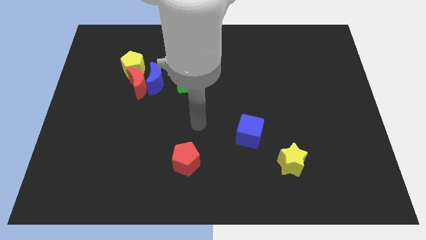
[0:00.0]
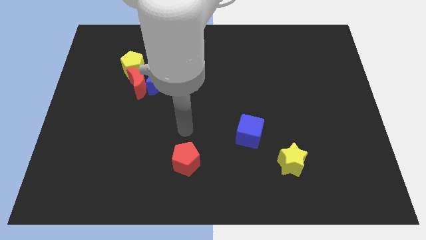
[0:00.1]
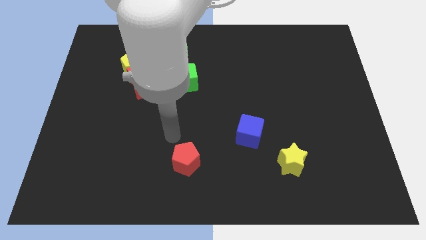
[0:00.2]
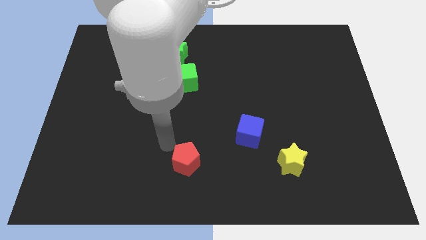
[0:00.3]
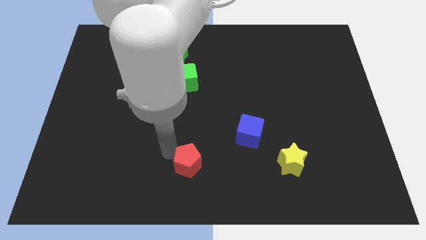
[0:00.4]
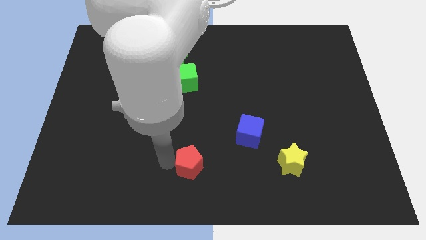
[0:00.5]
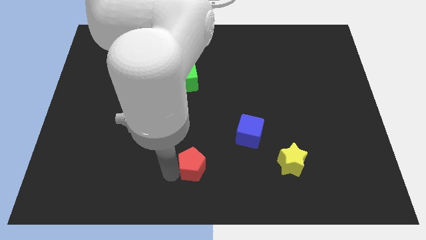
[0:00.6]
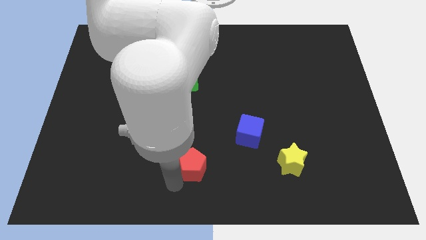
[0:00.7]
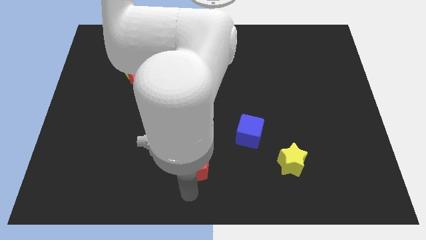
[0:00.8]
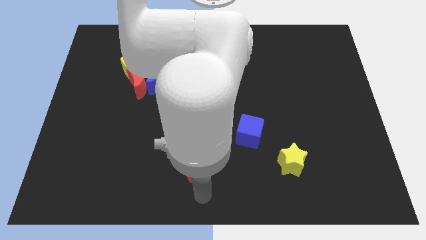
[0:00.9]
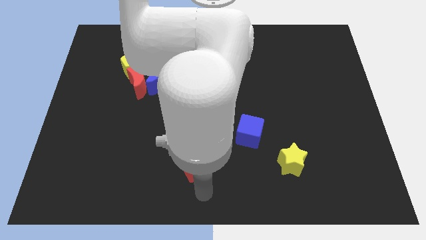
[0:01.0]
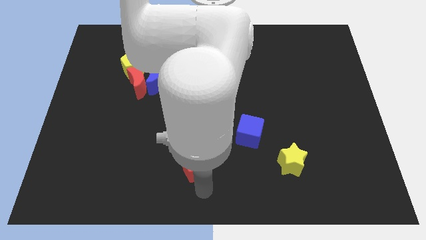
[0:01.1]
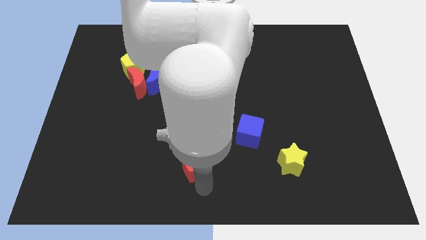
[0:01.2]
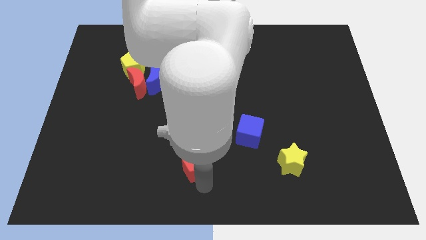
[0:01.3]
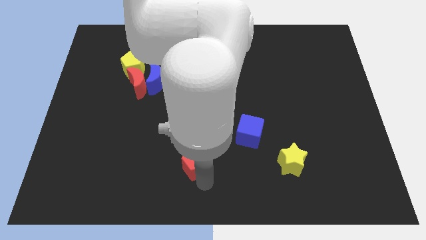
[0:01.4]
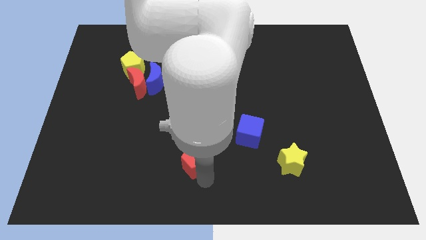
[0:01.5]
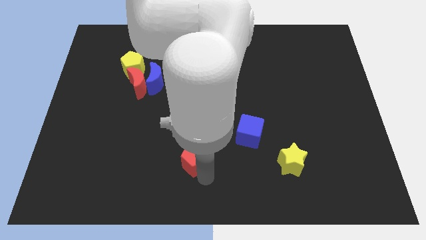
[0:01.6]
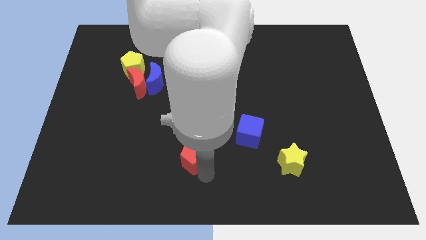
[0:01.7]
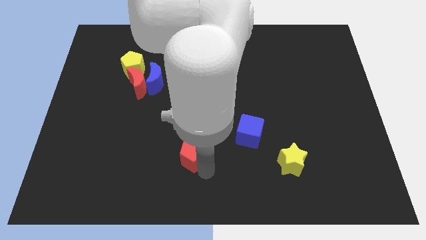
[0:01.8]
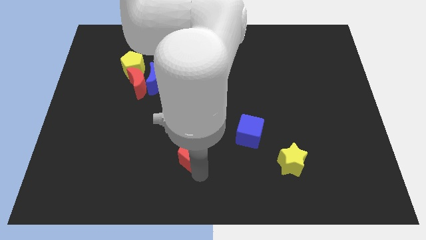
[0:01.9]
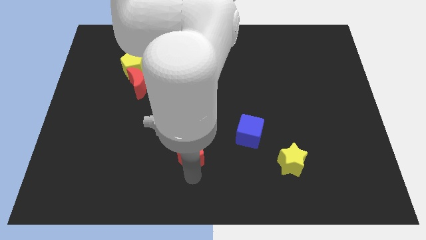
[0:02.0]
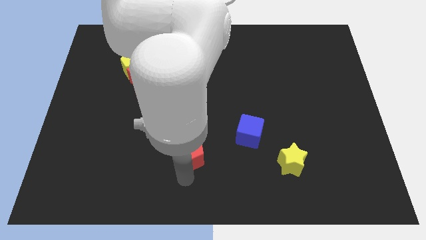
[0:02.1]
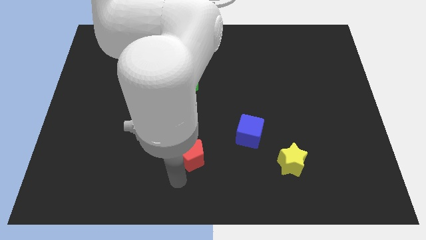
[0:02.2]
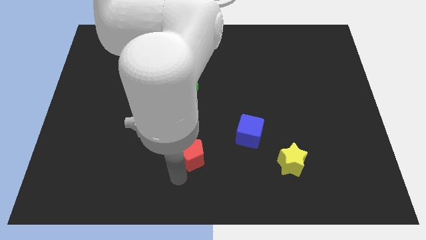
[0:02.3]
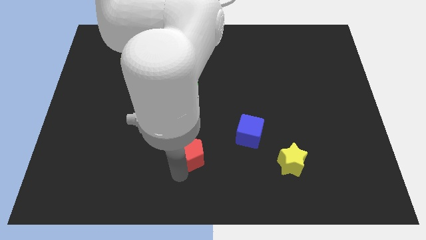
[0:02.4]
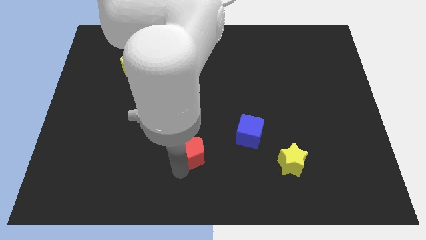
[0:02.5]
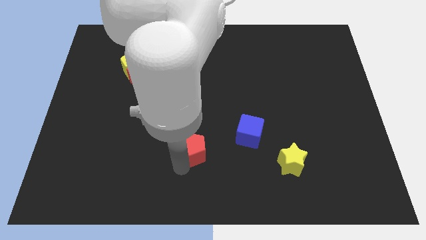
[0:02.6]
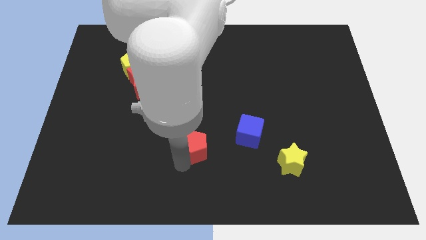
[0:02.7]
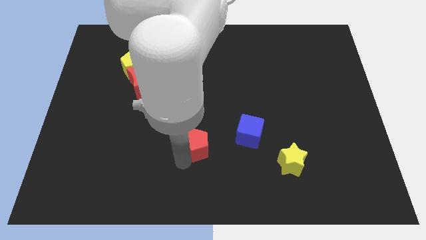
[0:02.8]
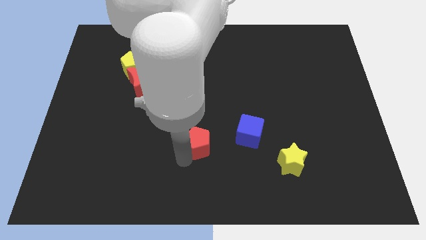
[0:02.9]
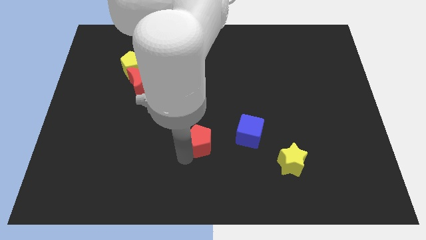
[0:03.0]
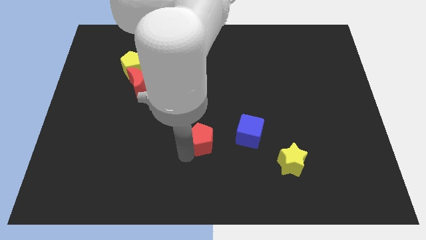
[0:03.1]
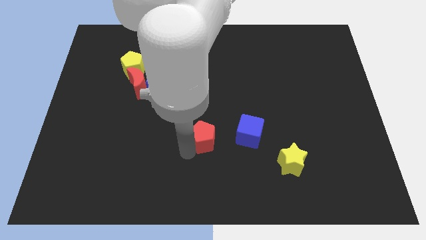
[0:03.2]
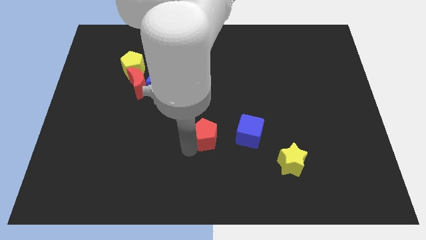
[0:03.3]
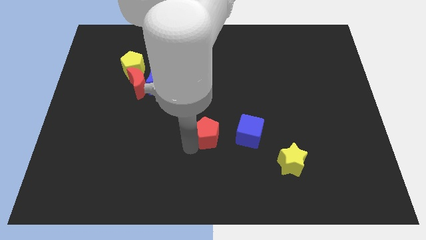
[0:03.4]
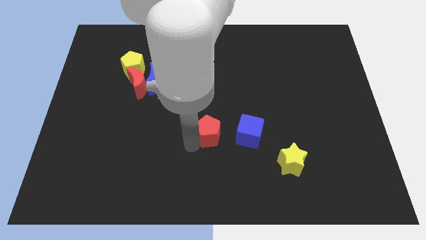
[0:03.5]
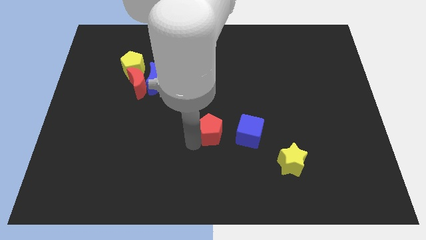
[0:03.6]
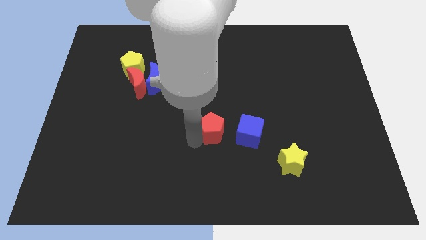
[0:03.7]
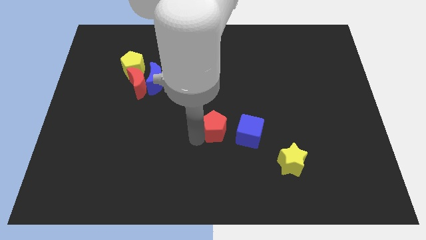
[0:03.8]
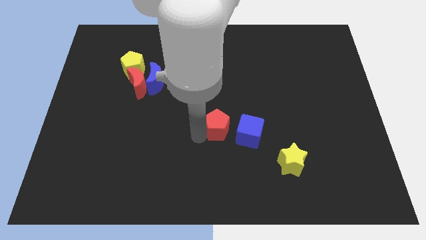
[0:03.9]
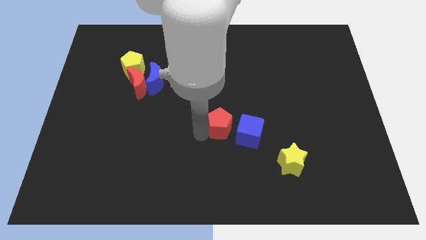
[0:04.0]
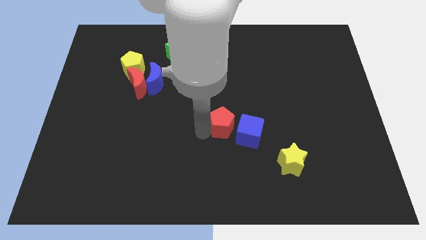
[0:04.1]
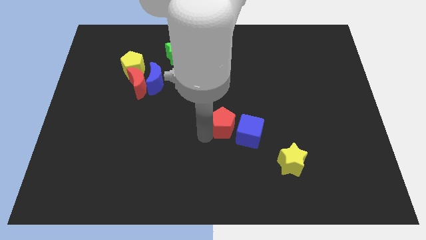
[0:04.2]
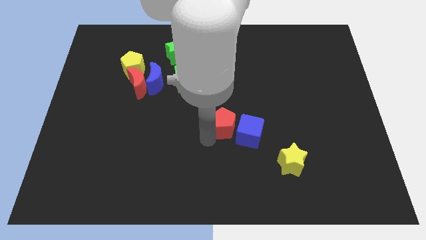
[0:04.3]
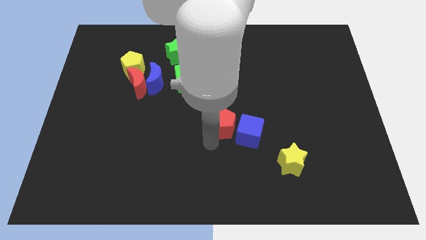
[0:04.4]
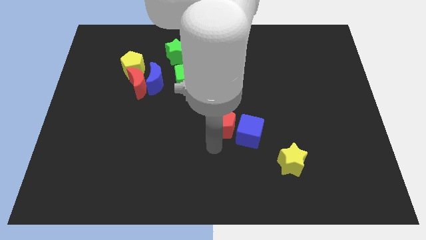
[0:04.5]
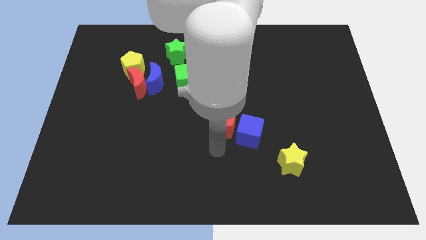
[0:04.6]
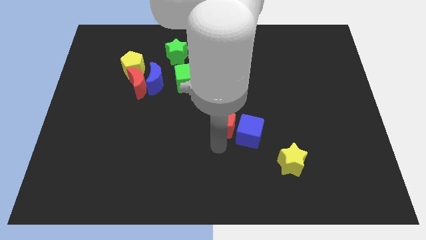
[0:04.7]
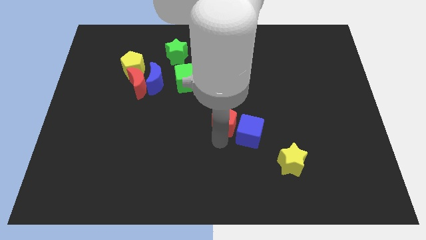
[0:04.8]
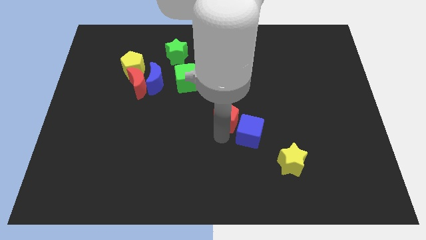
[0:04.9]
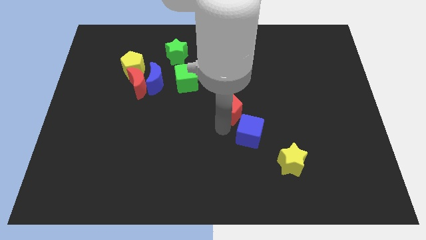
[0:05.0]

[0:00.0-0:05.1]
slide the red pentagon to the top of the blue cube

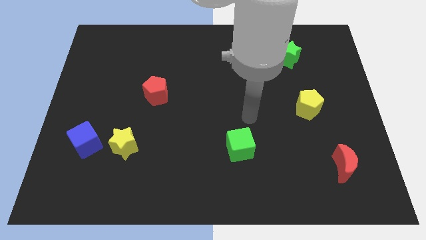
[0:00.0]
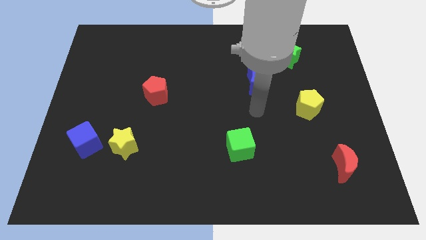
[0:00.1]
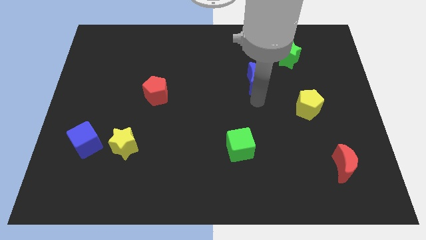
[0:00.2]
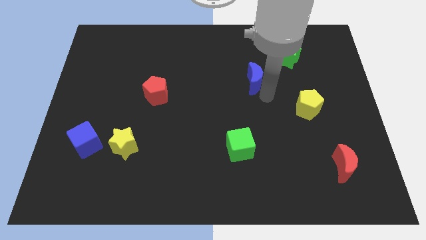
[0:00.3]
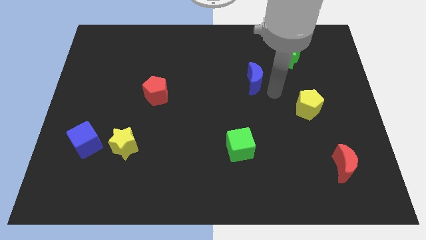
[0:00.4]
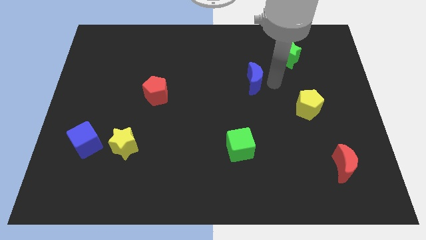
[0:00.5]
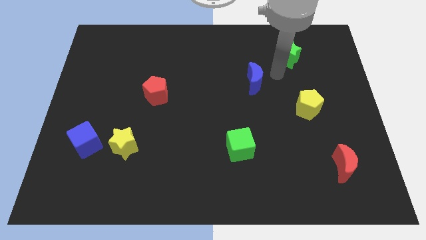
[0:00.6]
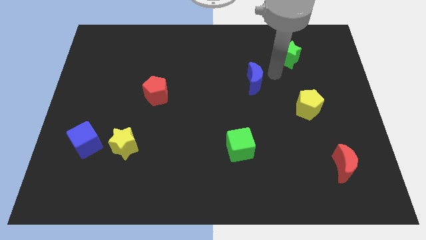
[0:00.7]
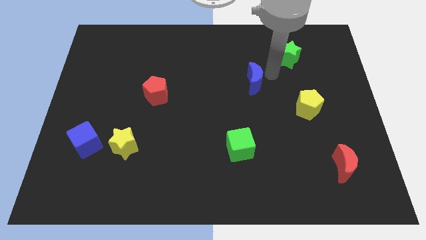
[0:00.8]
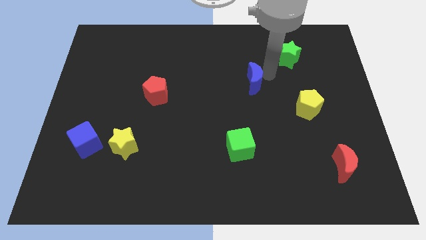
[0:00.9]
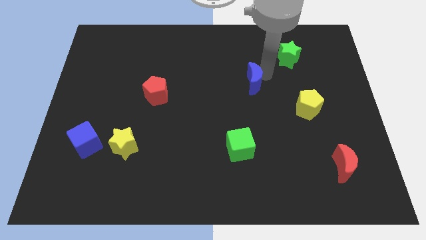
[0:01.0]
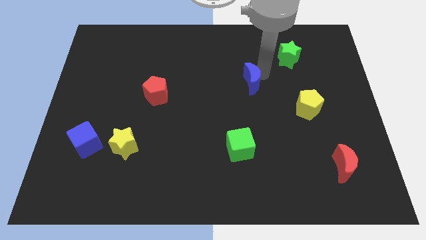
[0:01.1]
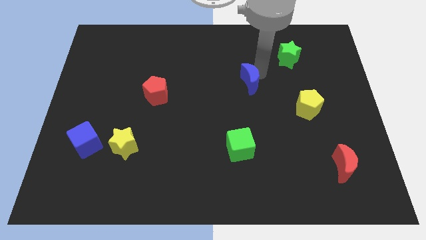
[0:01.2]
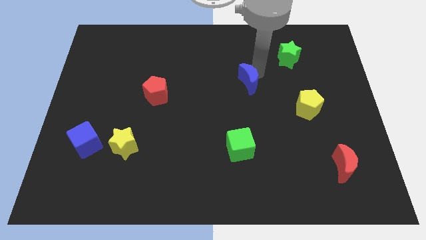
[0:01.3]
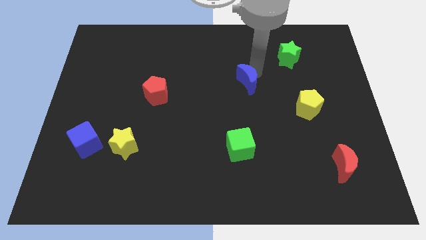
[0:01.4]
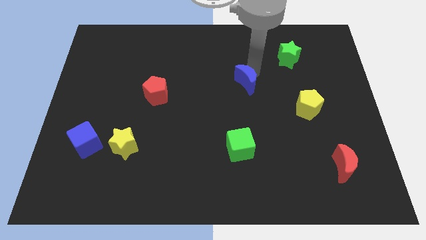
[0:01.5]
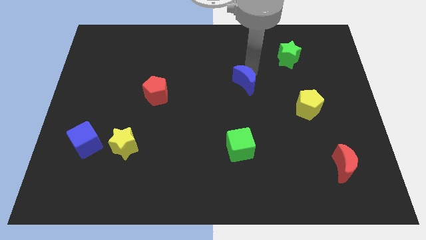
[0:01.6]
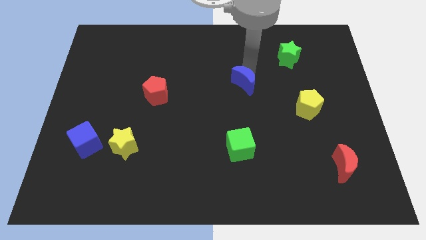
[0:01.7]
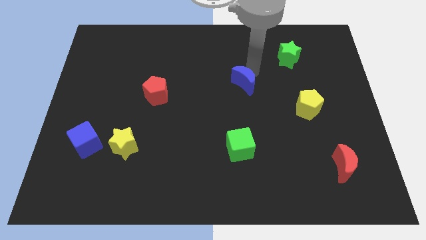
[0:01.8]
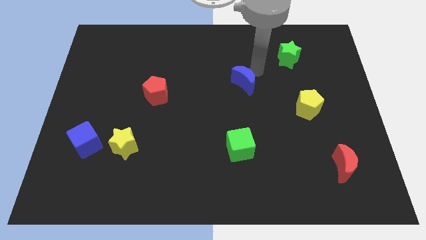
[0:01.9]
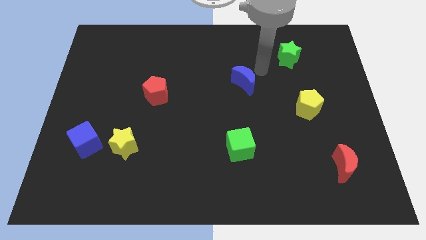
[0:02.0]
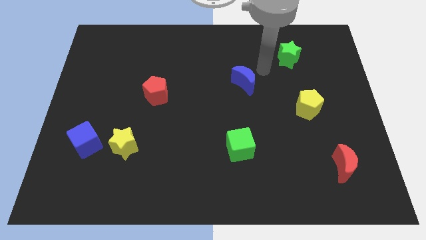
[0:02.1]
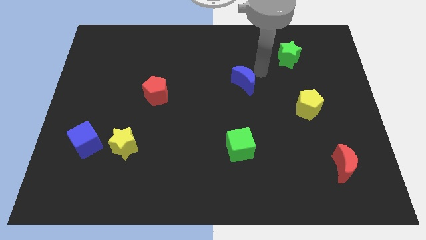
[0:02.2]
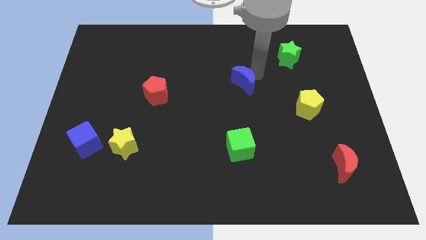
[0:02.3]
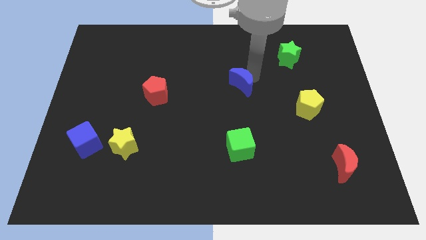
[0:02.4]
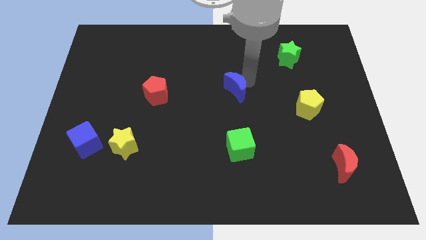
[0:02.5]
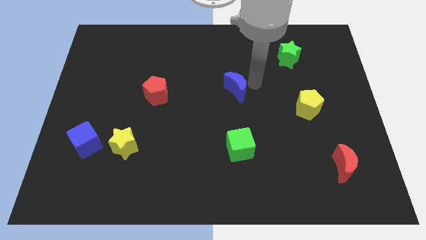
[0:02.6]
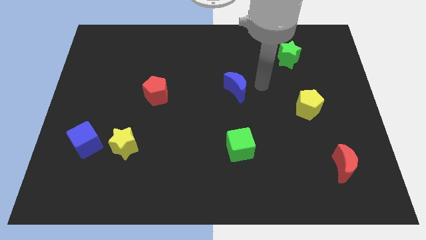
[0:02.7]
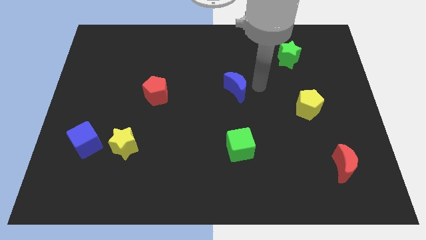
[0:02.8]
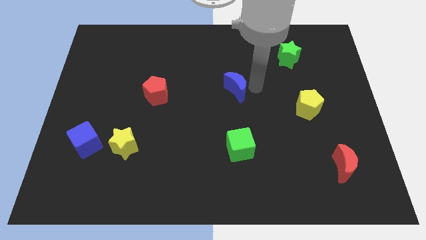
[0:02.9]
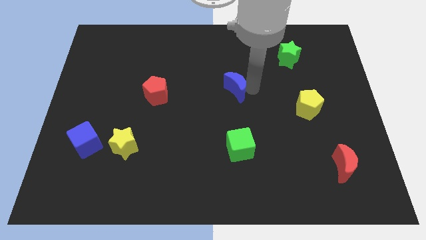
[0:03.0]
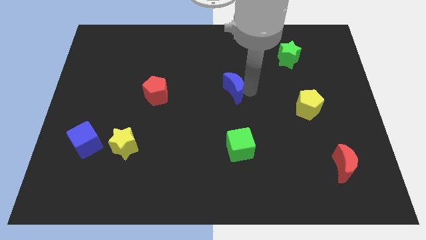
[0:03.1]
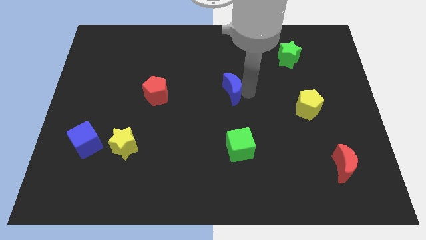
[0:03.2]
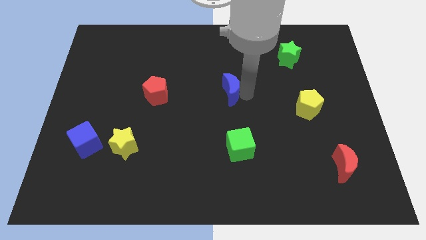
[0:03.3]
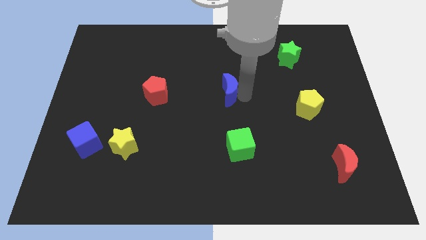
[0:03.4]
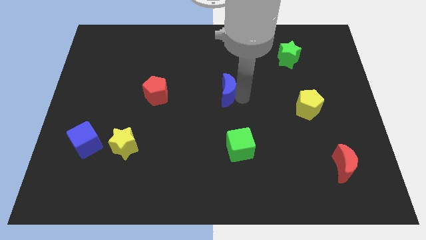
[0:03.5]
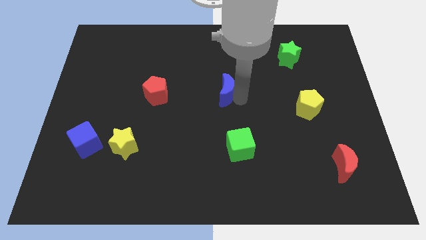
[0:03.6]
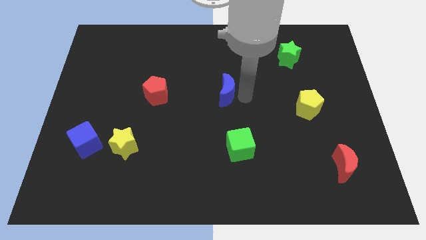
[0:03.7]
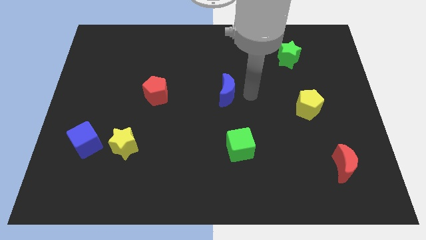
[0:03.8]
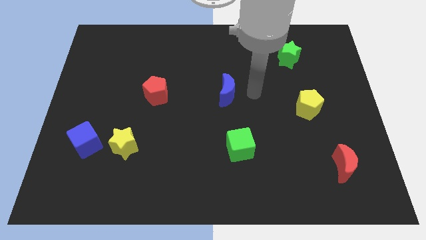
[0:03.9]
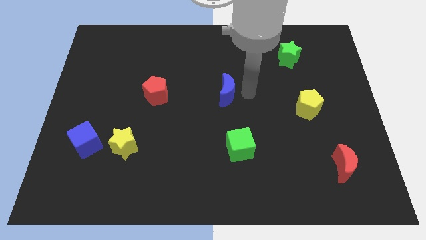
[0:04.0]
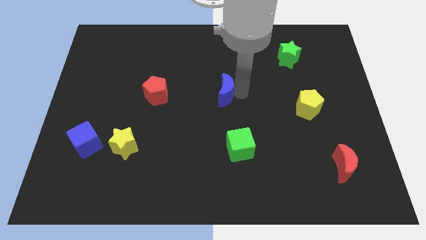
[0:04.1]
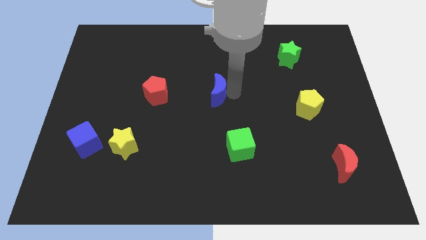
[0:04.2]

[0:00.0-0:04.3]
move the blue moon to the right of the red pentagon
